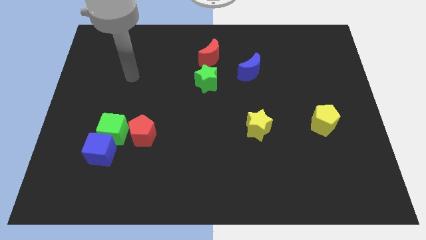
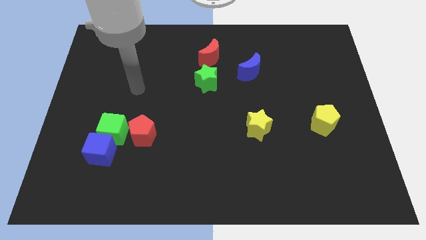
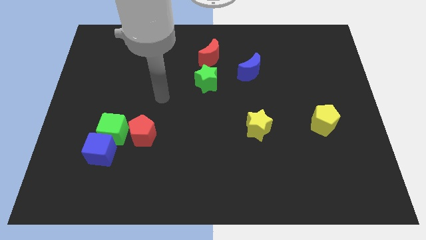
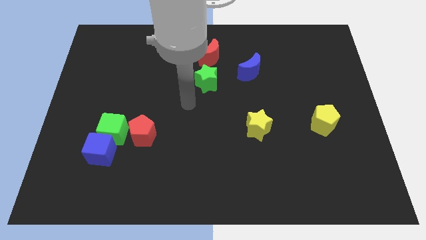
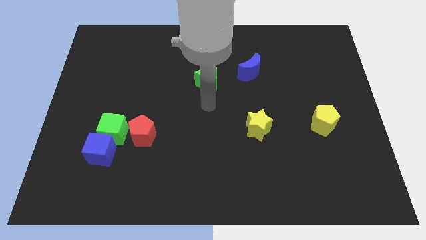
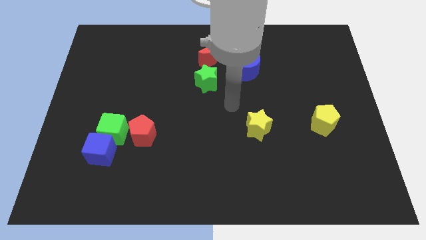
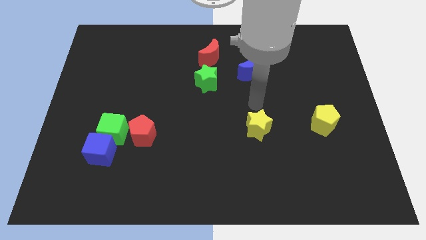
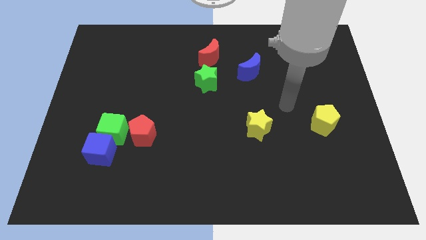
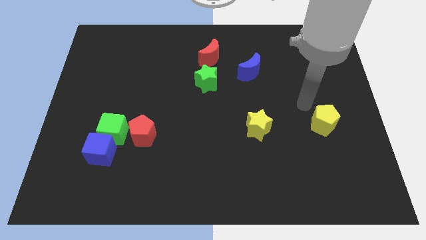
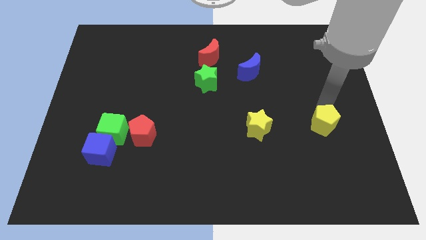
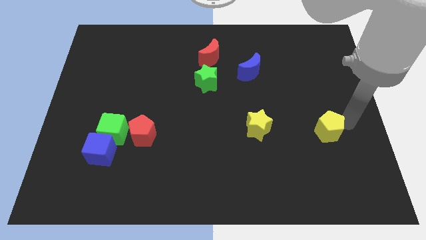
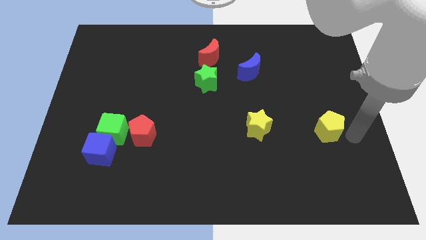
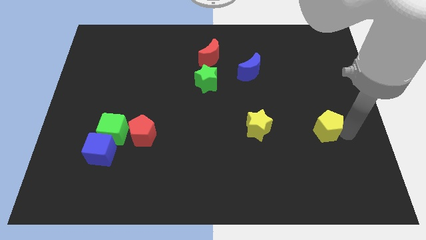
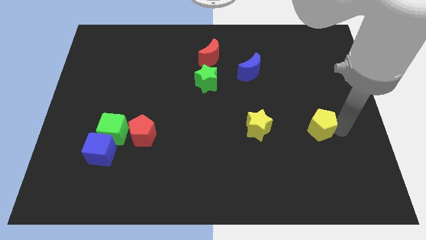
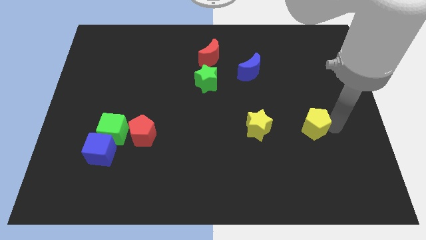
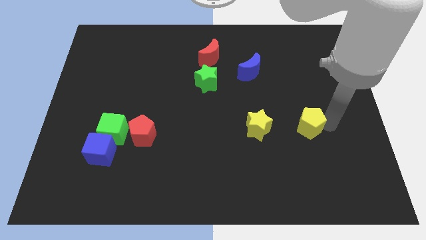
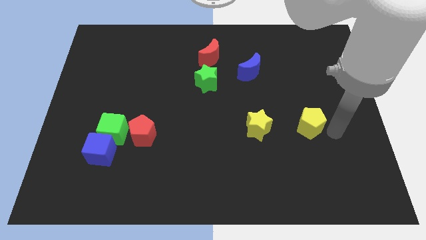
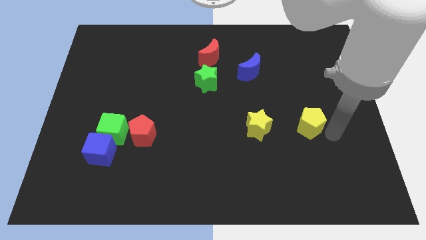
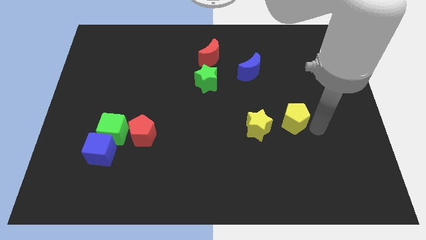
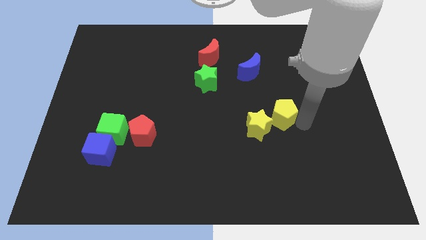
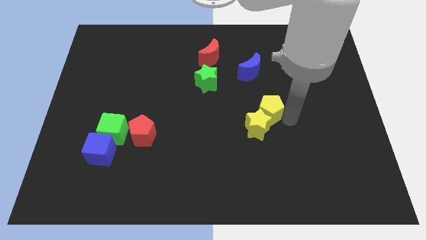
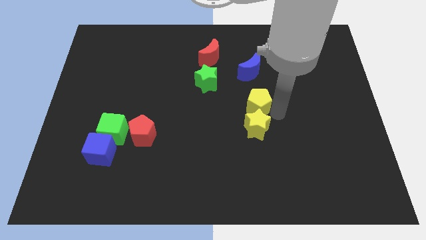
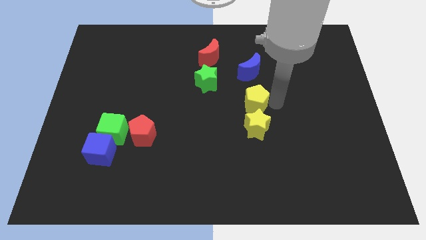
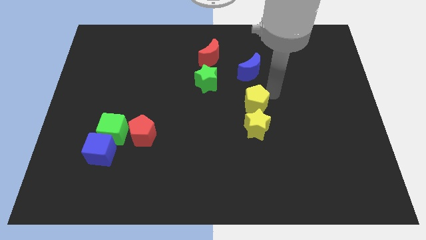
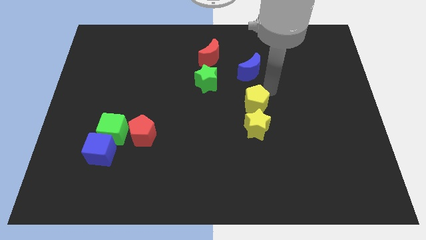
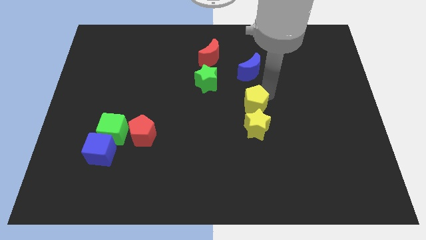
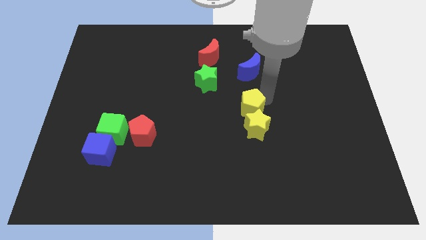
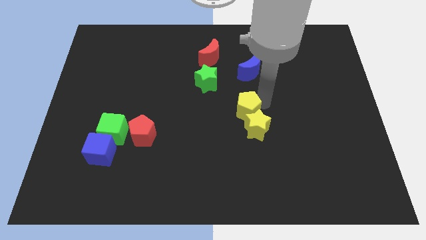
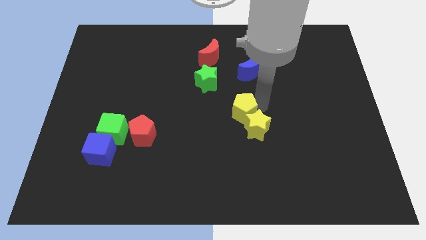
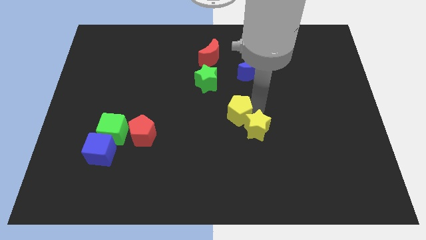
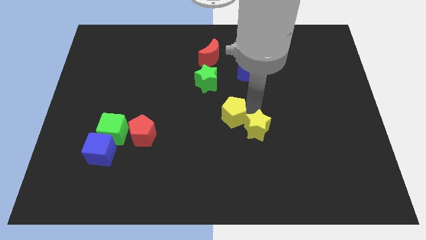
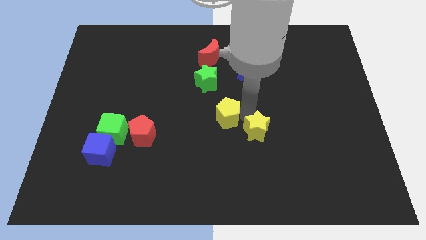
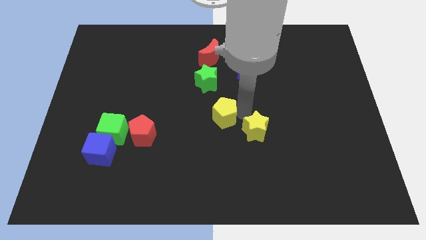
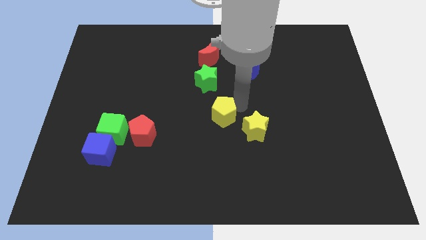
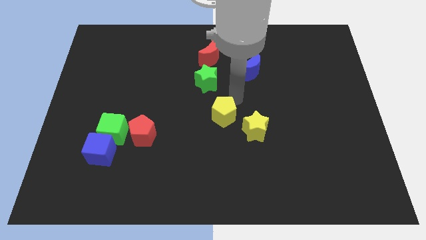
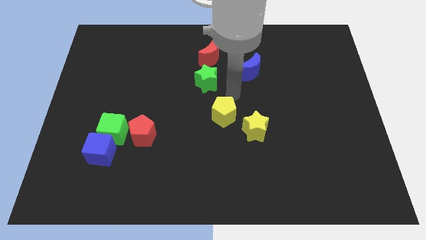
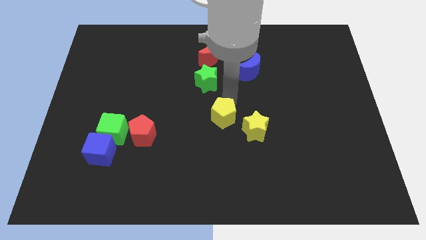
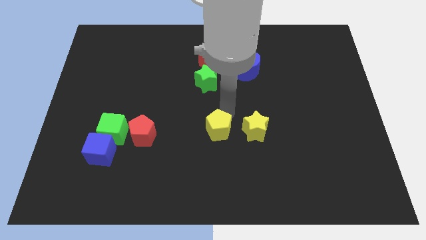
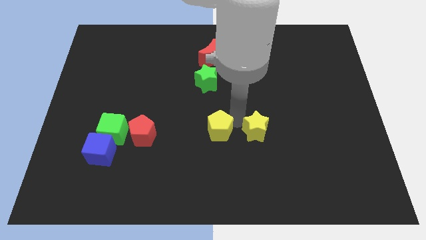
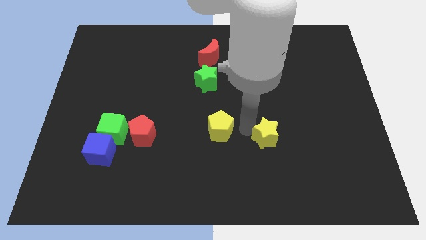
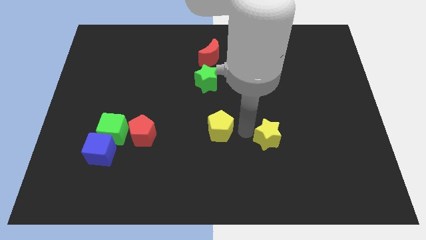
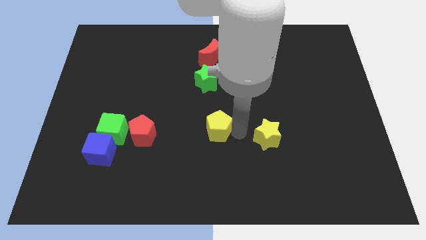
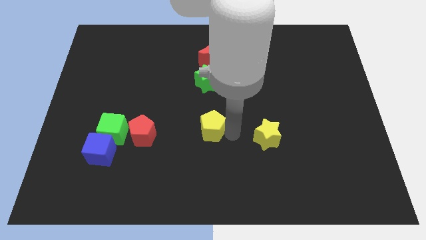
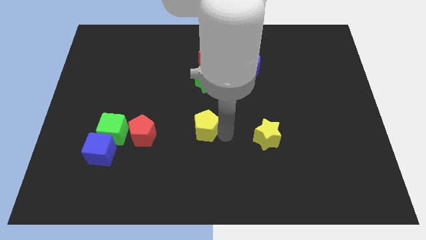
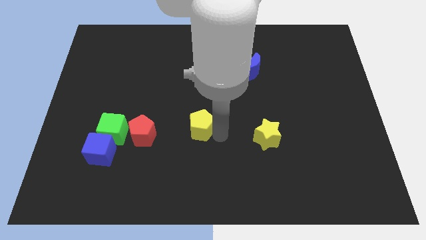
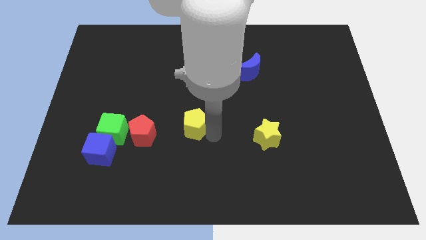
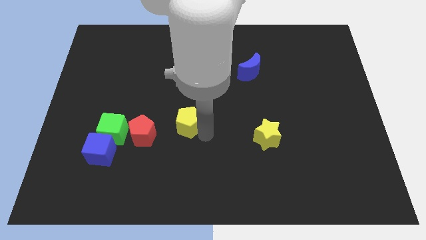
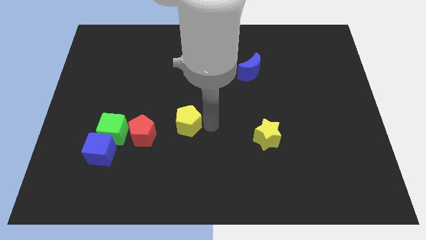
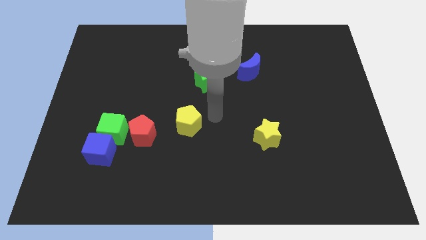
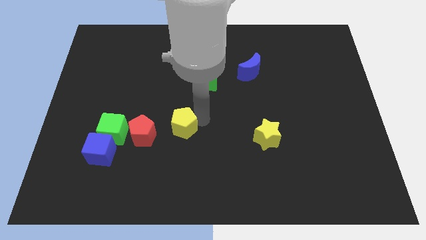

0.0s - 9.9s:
move the yellow pentagon to the right side of the green cube

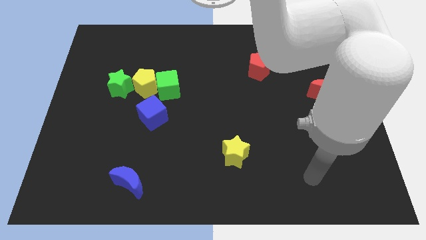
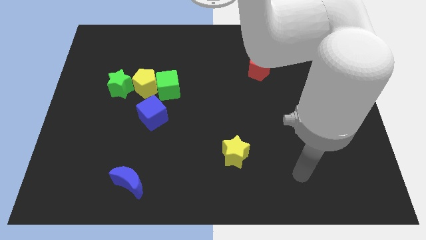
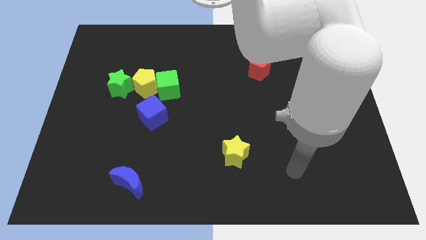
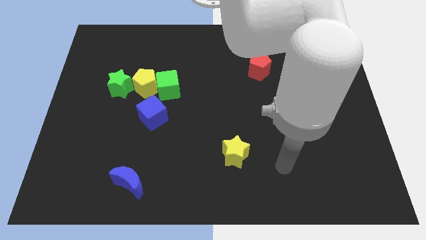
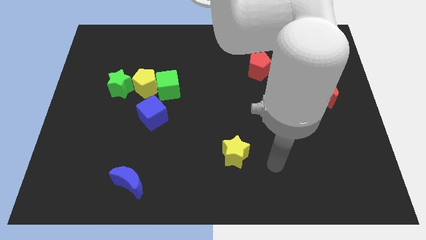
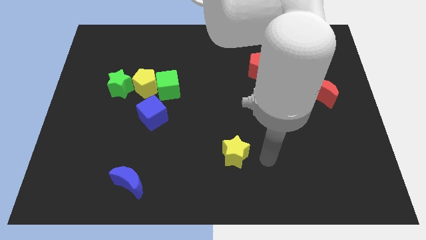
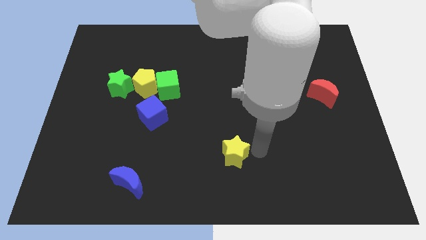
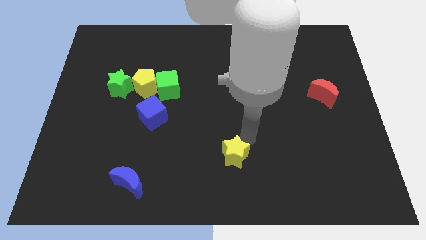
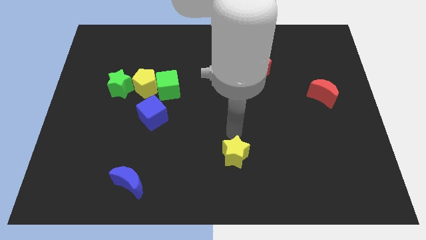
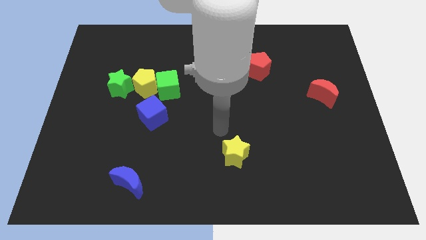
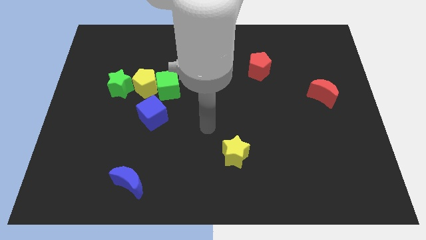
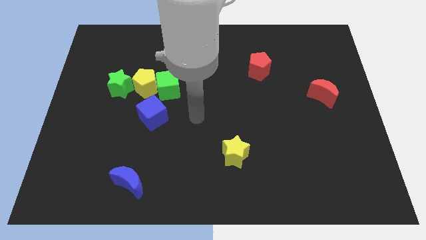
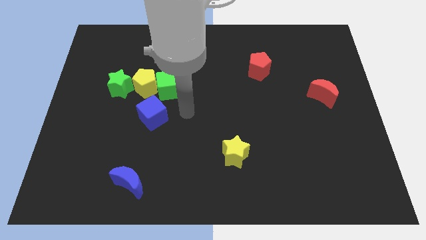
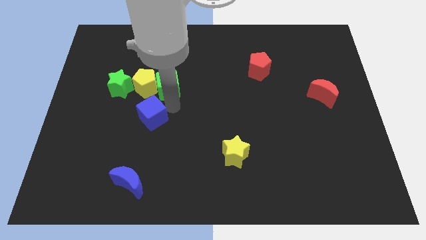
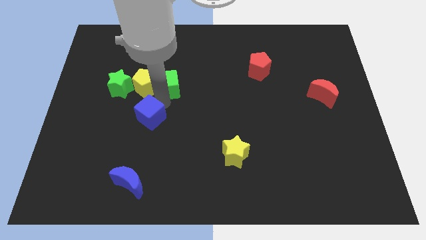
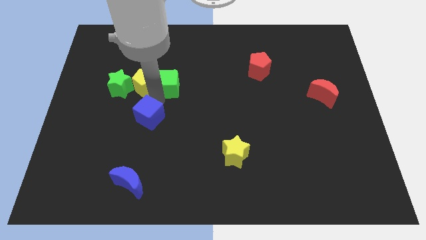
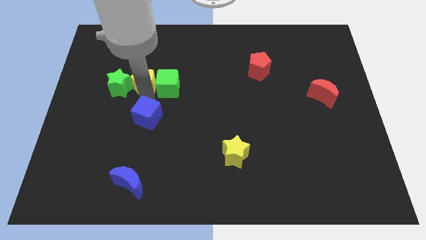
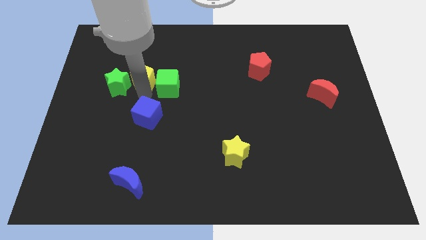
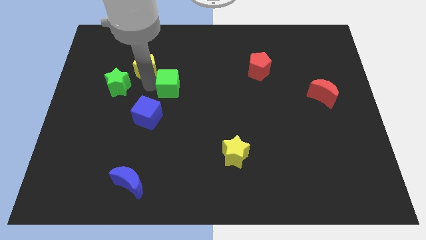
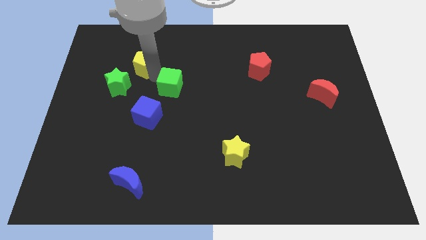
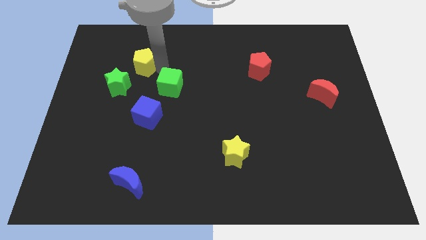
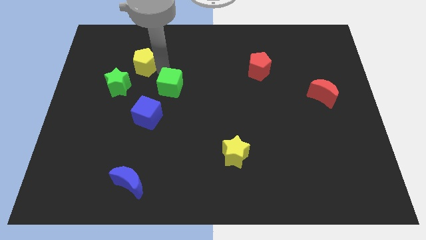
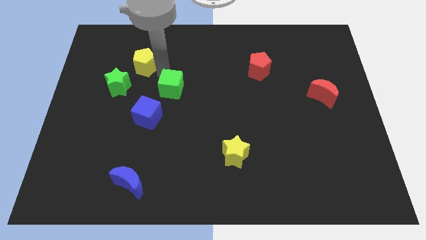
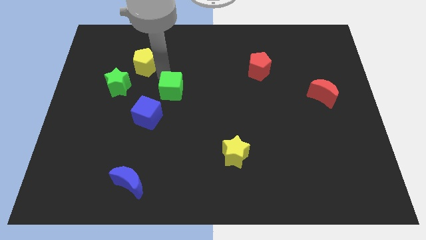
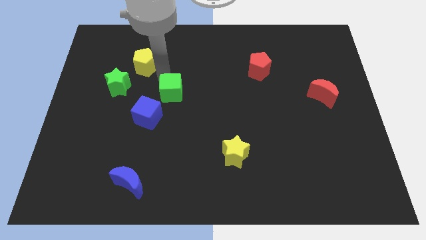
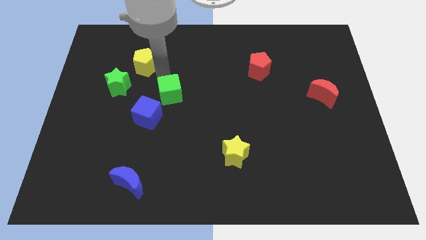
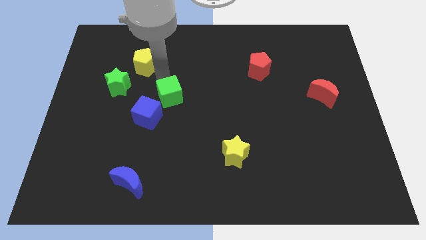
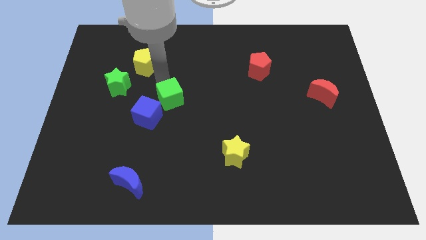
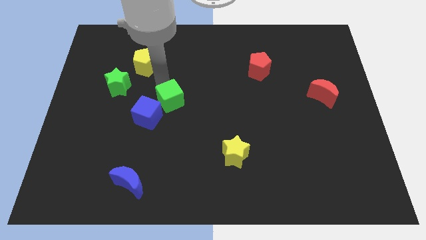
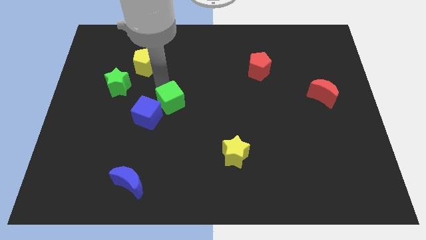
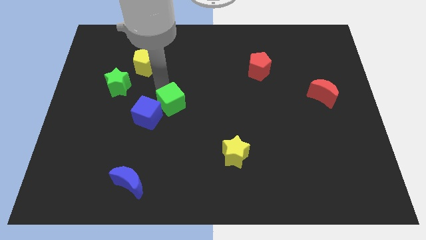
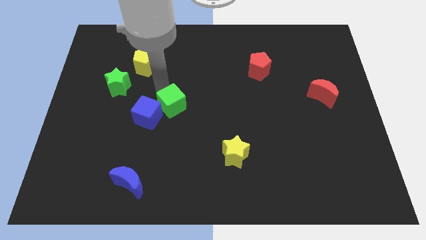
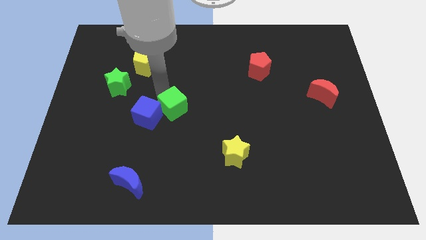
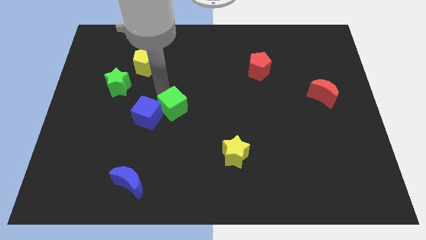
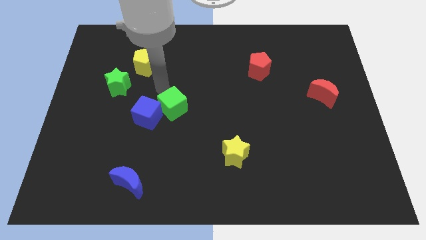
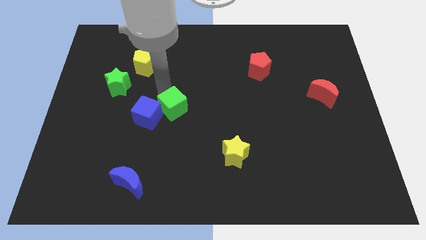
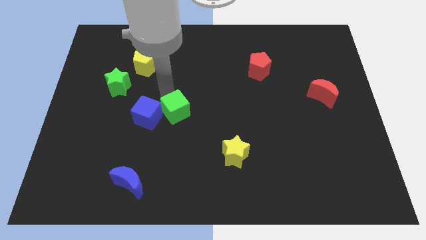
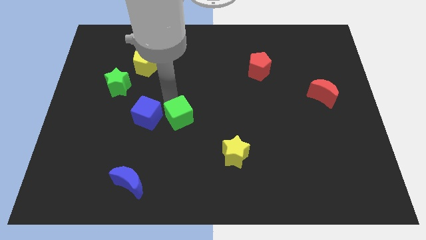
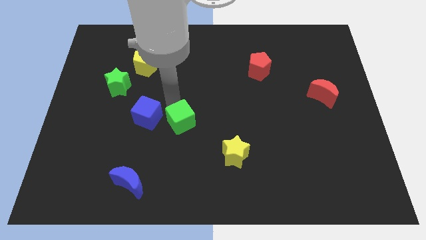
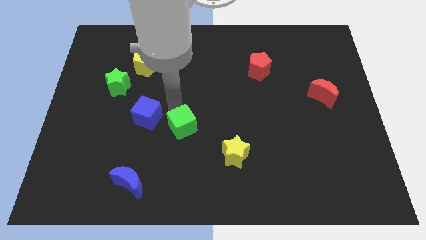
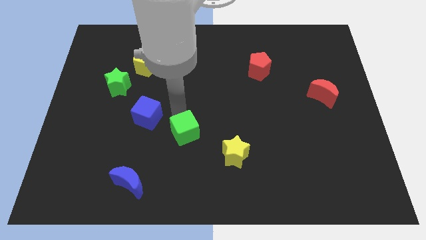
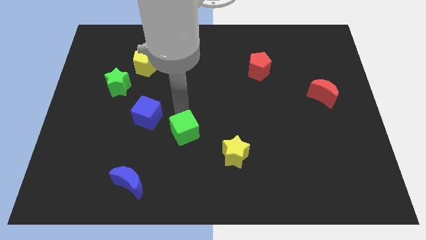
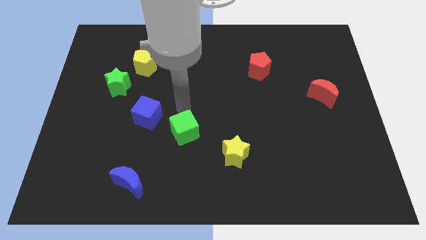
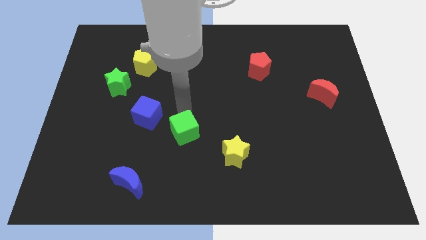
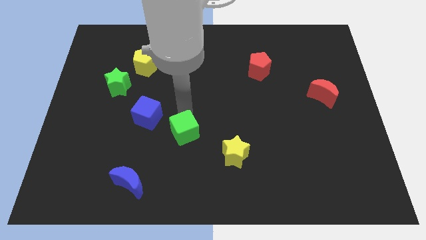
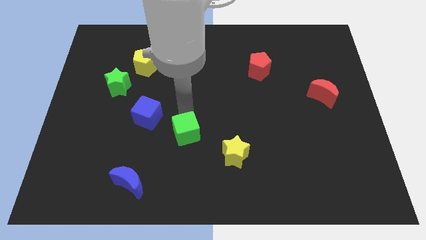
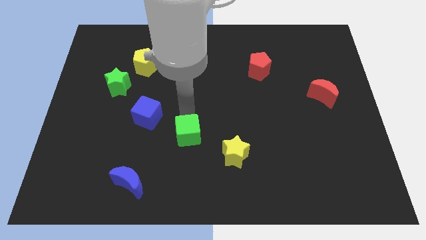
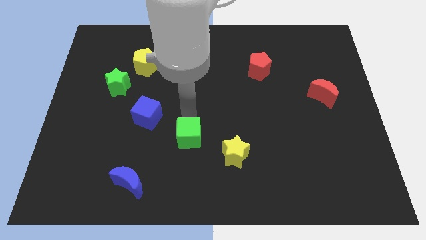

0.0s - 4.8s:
put the green cube to the left of the yellow star
